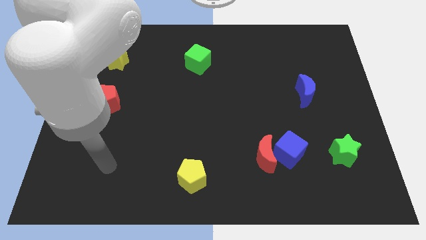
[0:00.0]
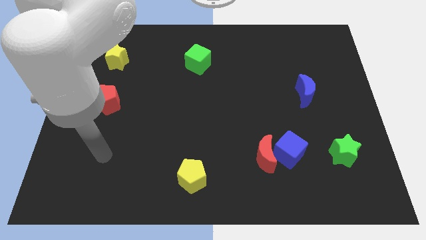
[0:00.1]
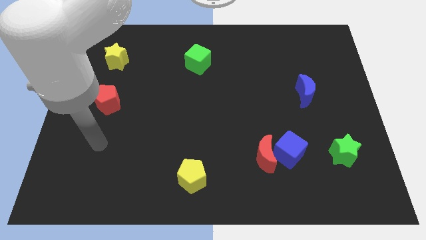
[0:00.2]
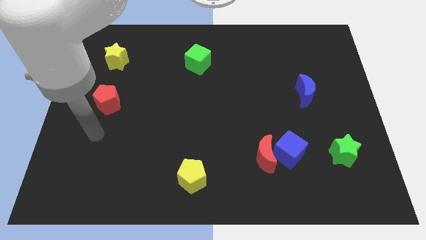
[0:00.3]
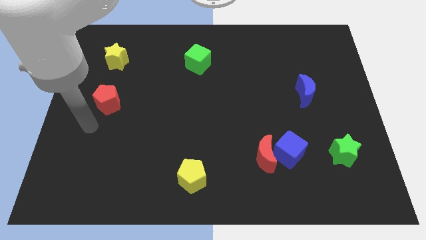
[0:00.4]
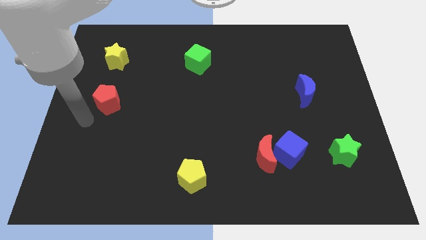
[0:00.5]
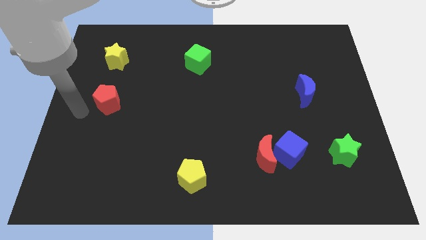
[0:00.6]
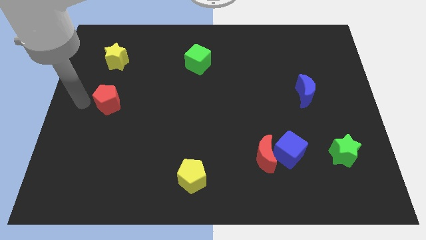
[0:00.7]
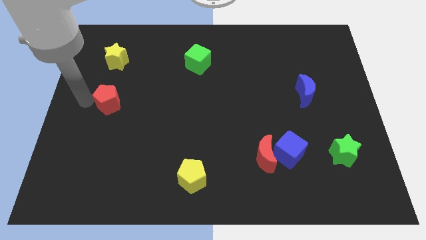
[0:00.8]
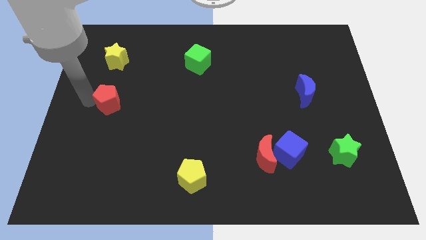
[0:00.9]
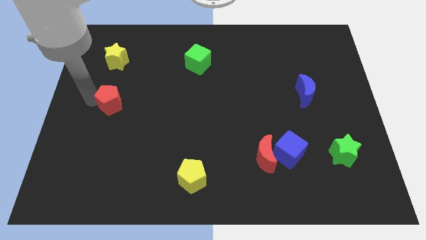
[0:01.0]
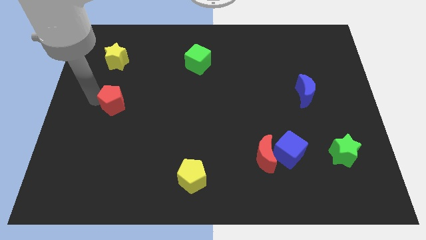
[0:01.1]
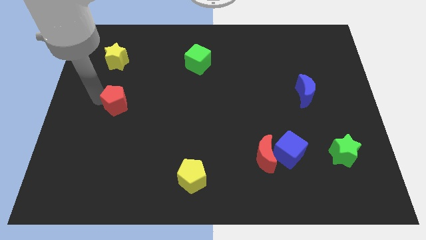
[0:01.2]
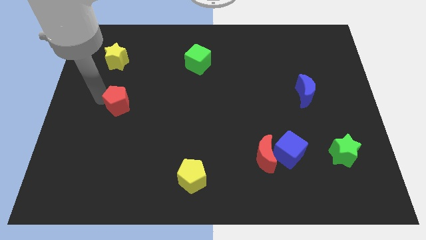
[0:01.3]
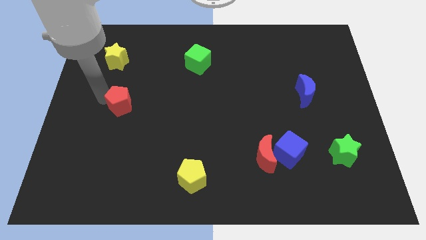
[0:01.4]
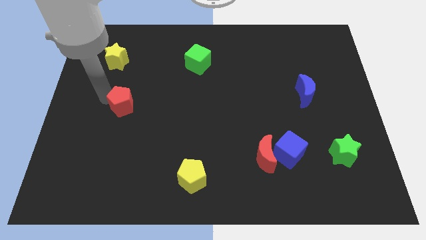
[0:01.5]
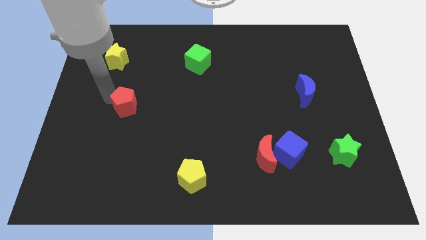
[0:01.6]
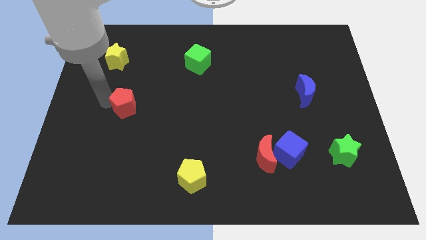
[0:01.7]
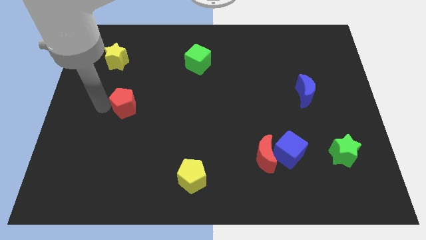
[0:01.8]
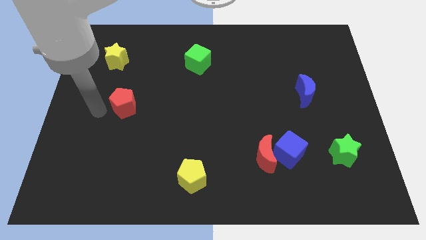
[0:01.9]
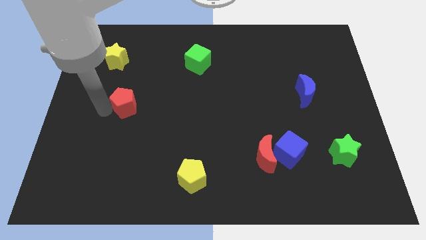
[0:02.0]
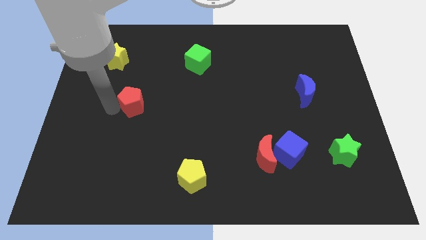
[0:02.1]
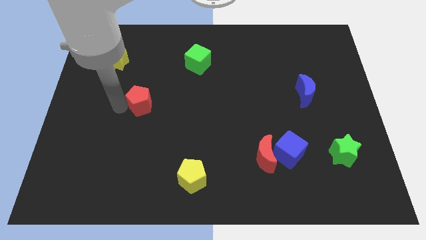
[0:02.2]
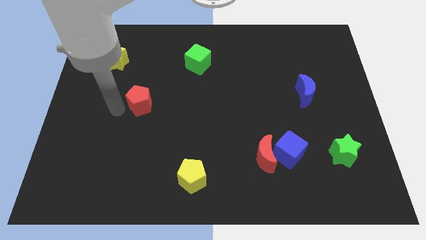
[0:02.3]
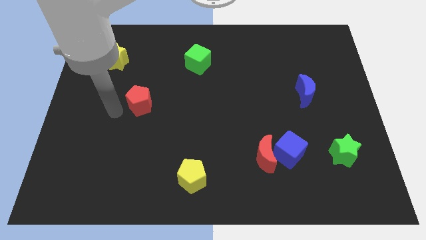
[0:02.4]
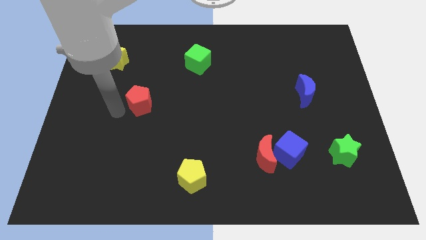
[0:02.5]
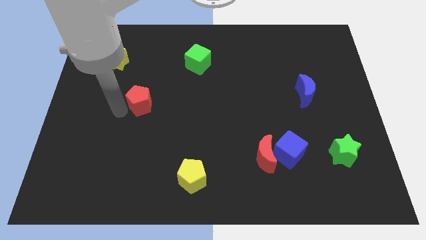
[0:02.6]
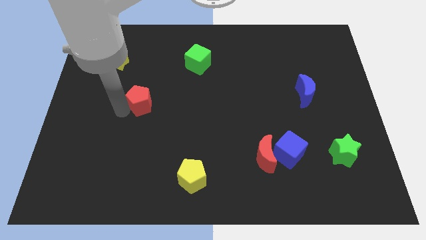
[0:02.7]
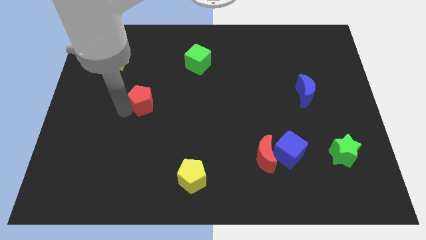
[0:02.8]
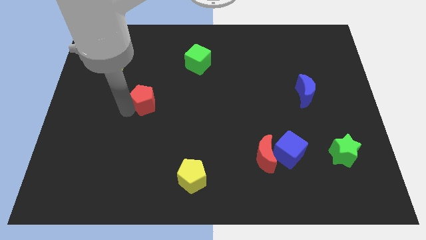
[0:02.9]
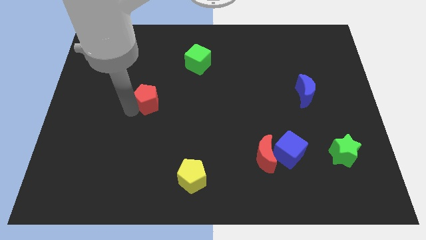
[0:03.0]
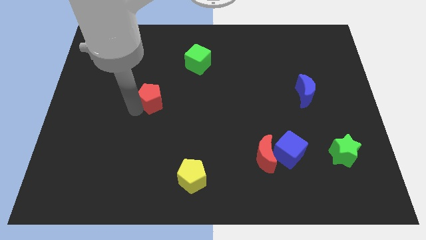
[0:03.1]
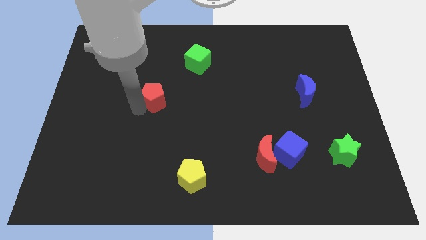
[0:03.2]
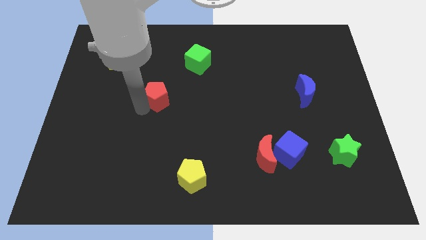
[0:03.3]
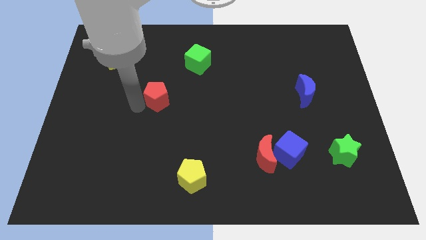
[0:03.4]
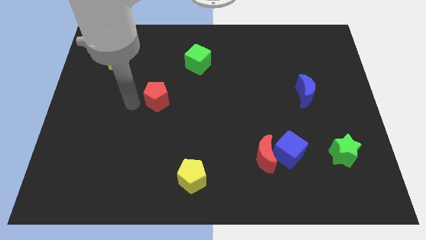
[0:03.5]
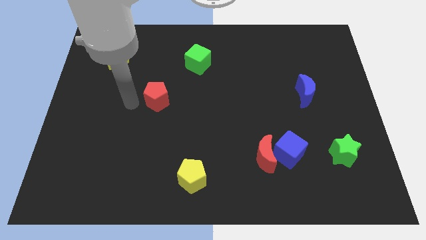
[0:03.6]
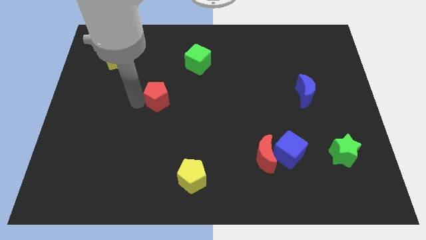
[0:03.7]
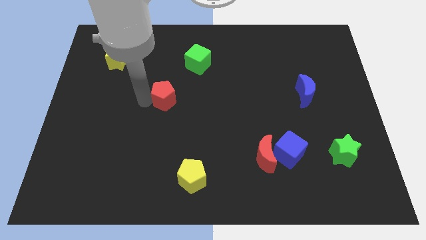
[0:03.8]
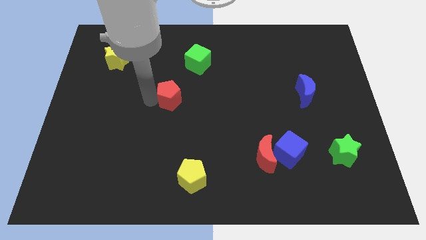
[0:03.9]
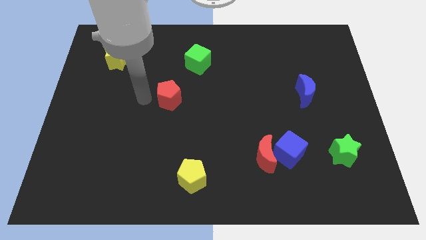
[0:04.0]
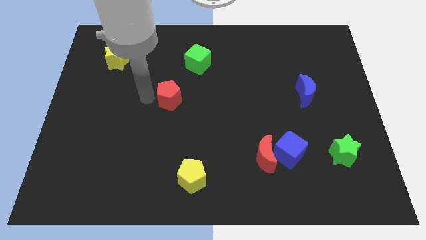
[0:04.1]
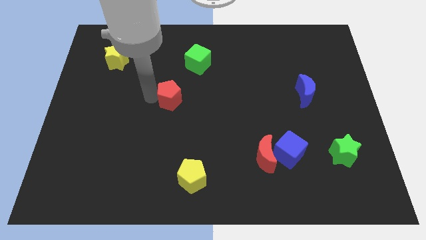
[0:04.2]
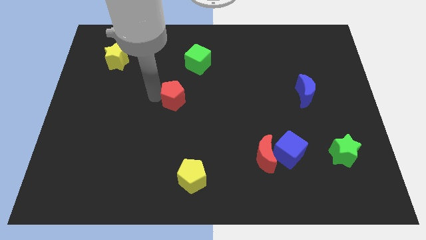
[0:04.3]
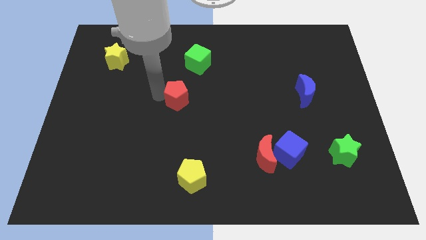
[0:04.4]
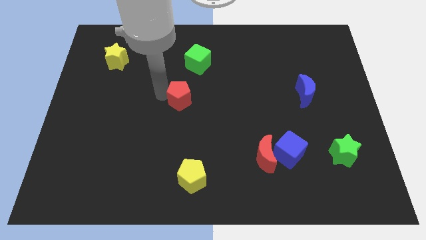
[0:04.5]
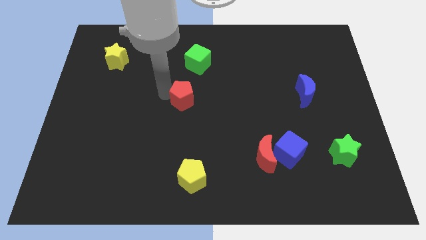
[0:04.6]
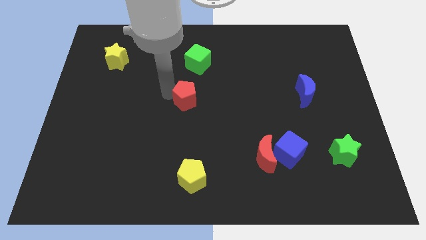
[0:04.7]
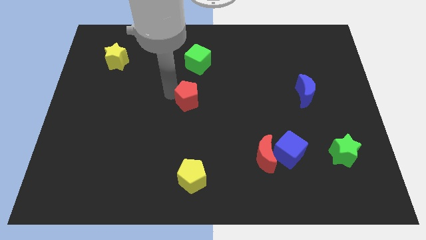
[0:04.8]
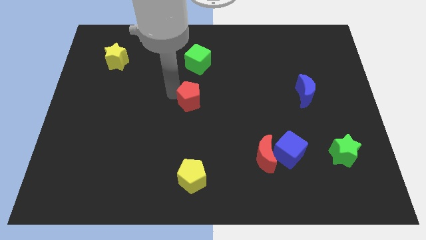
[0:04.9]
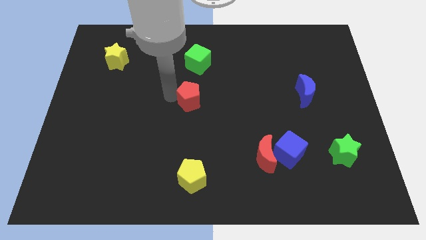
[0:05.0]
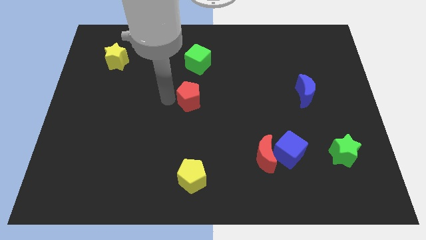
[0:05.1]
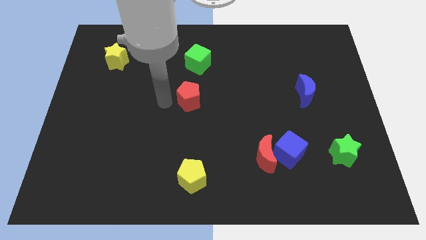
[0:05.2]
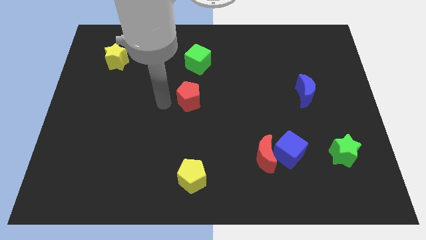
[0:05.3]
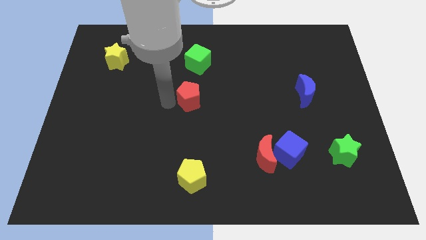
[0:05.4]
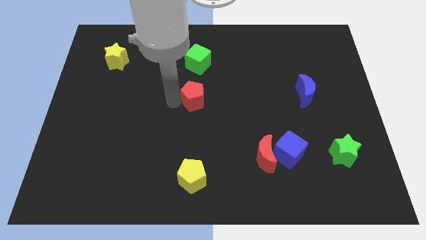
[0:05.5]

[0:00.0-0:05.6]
slide the red pentagon right

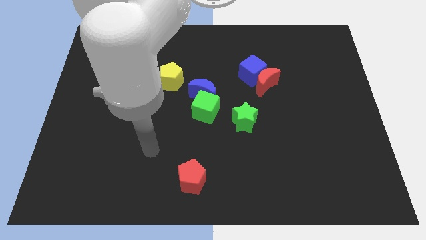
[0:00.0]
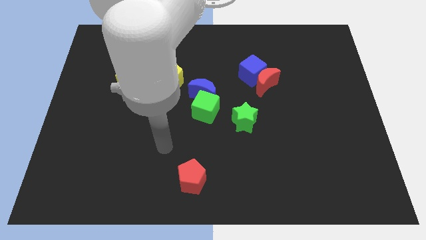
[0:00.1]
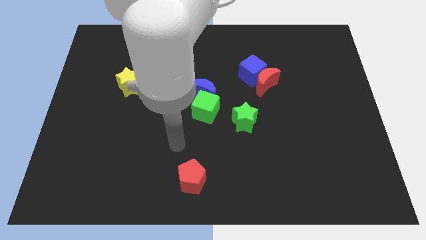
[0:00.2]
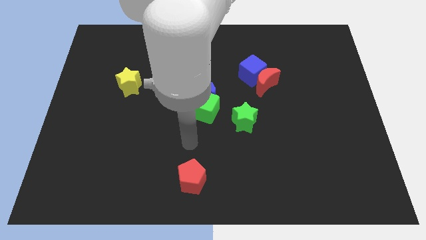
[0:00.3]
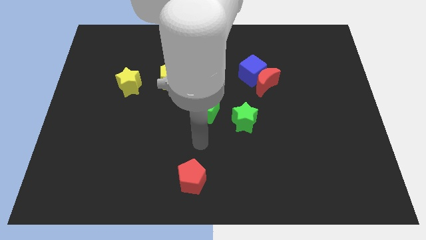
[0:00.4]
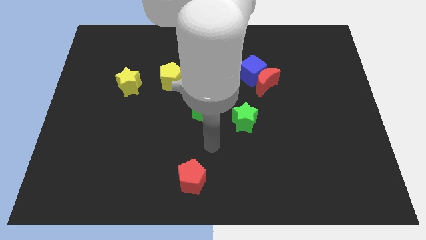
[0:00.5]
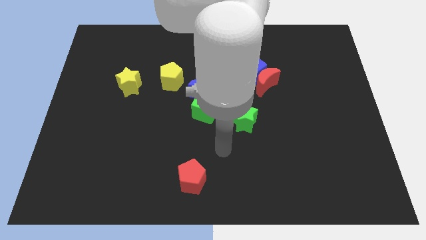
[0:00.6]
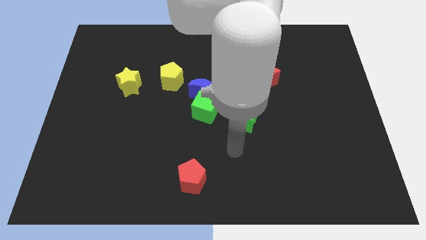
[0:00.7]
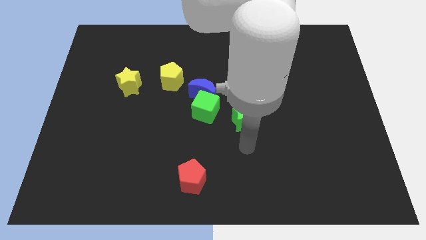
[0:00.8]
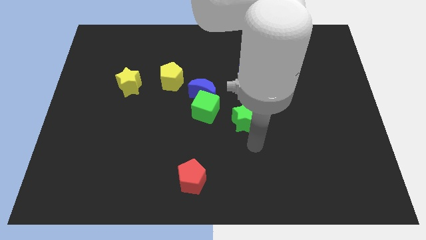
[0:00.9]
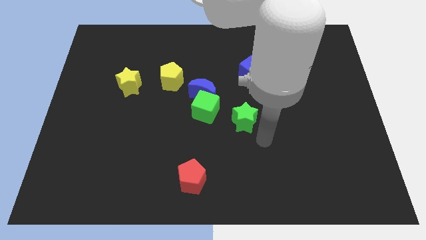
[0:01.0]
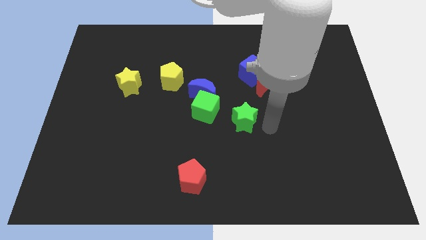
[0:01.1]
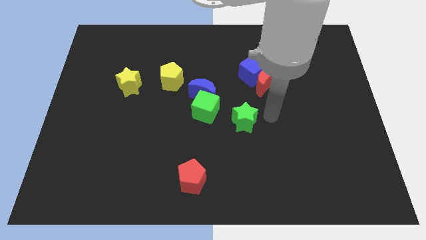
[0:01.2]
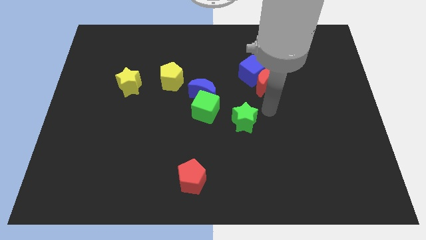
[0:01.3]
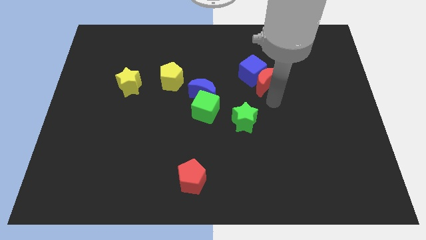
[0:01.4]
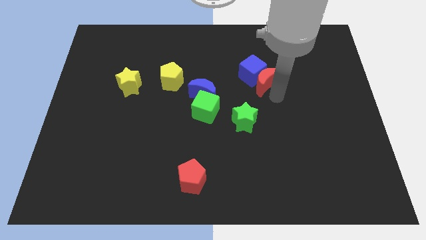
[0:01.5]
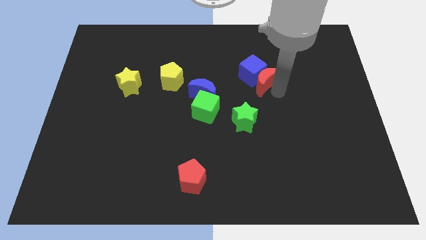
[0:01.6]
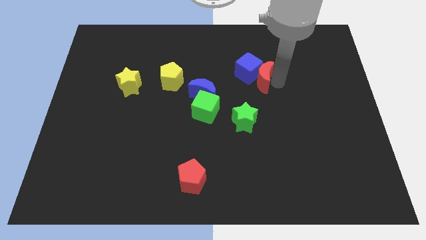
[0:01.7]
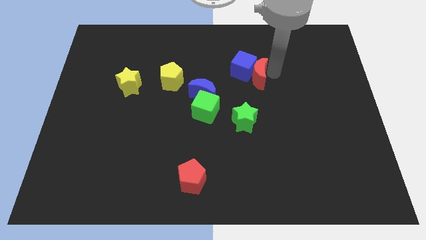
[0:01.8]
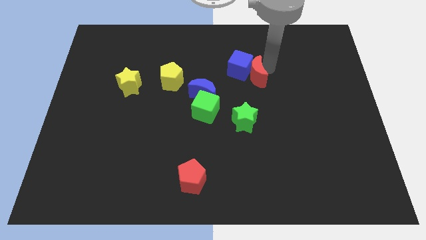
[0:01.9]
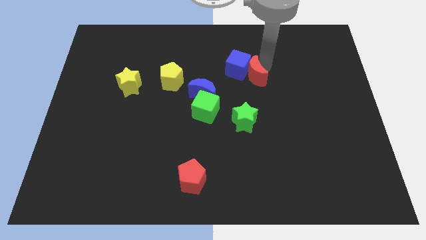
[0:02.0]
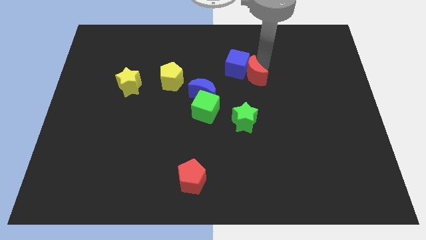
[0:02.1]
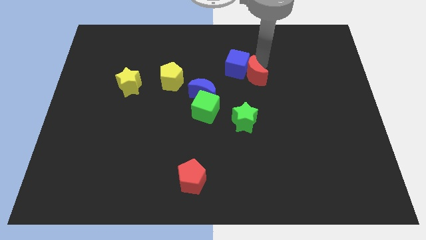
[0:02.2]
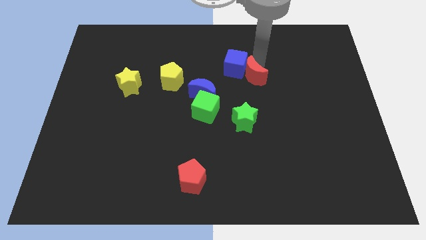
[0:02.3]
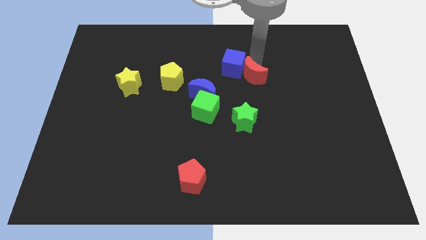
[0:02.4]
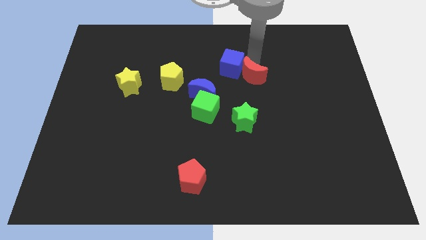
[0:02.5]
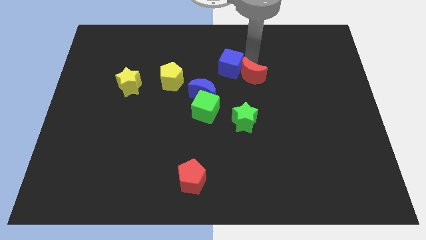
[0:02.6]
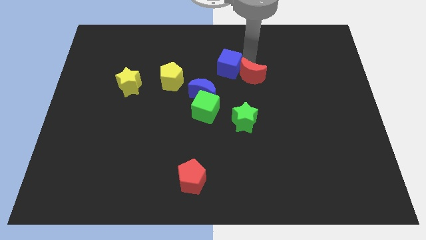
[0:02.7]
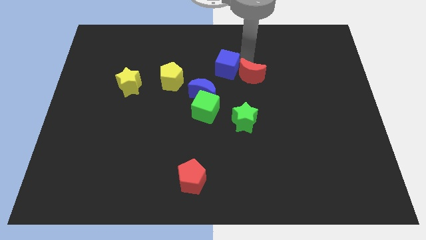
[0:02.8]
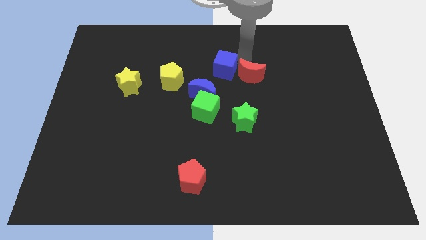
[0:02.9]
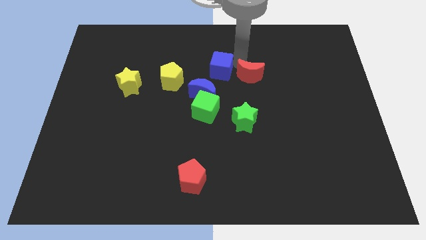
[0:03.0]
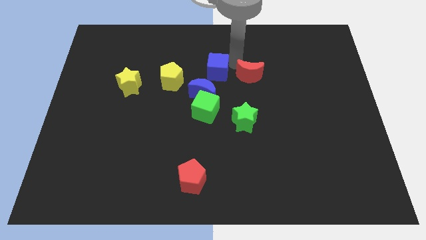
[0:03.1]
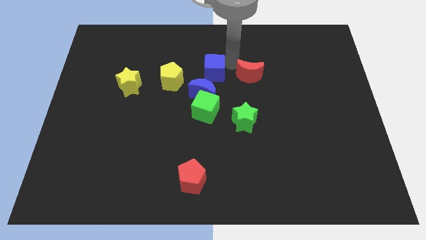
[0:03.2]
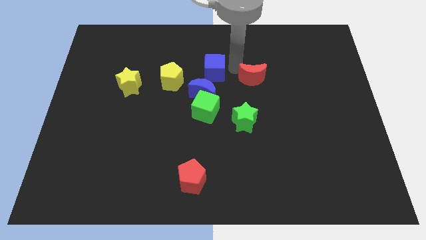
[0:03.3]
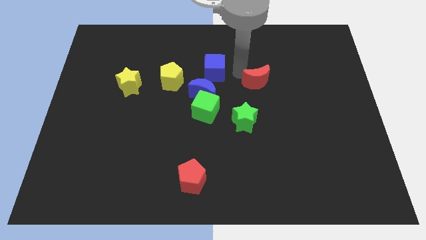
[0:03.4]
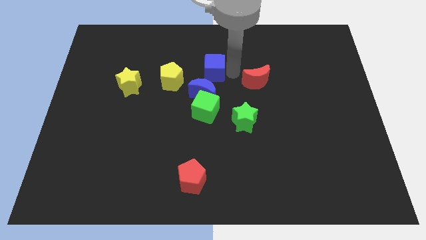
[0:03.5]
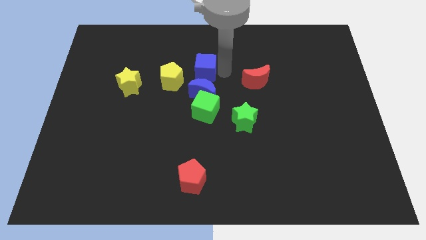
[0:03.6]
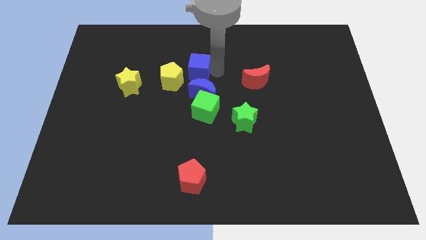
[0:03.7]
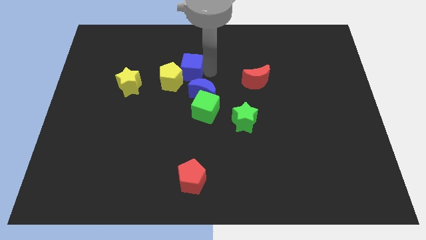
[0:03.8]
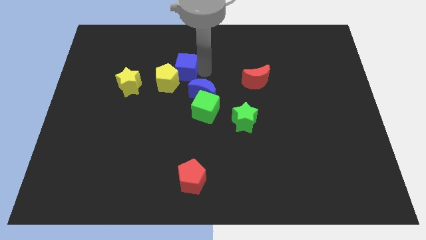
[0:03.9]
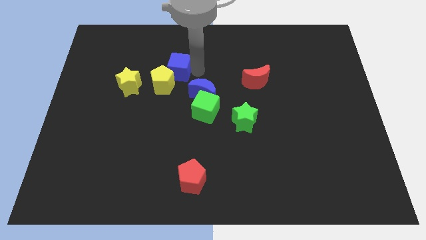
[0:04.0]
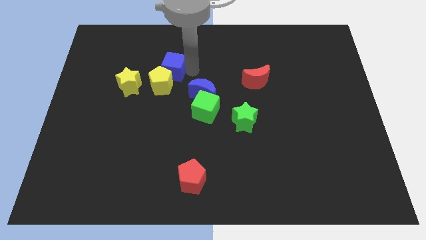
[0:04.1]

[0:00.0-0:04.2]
push the blue cube to the left
